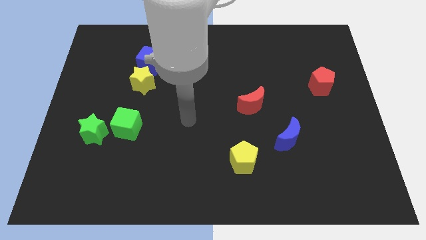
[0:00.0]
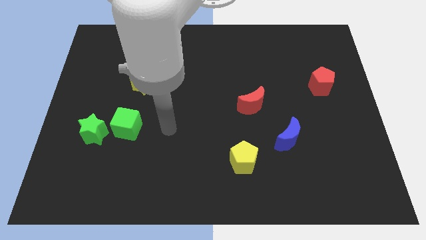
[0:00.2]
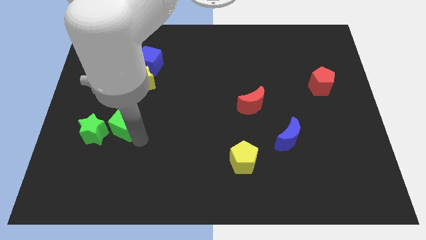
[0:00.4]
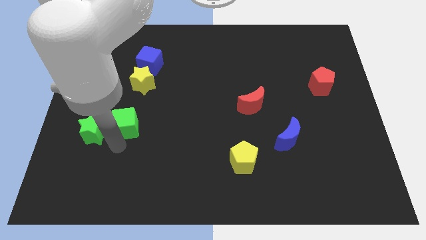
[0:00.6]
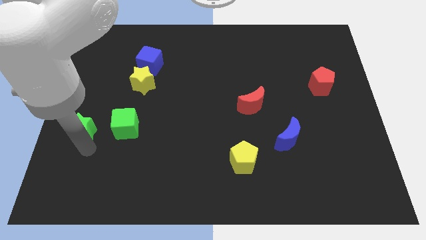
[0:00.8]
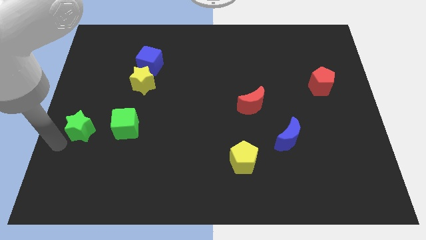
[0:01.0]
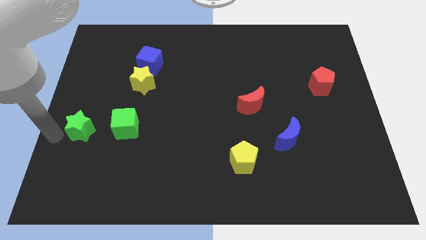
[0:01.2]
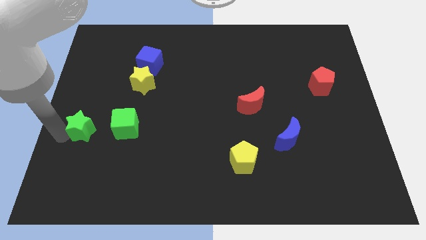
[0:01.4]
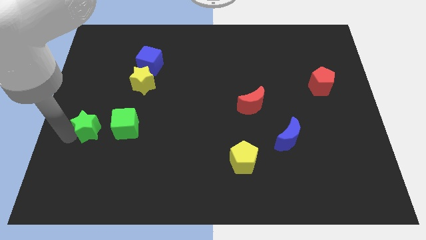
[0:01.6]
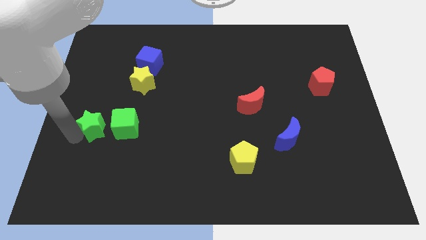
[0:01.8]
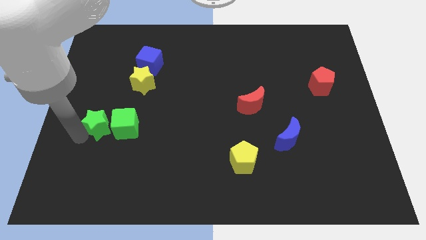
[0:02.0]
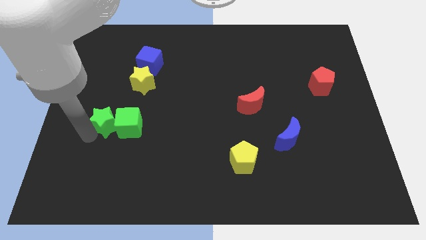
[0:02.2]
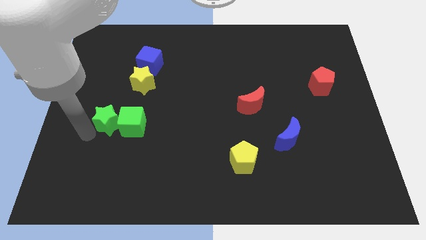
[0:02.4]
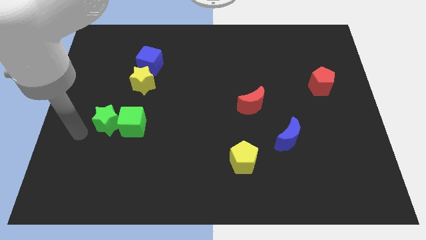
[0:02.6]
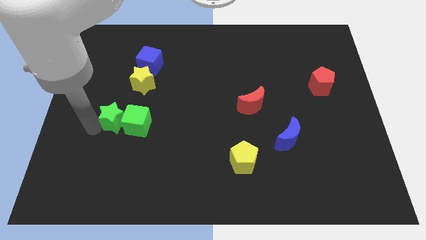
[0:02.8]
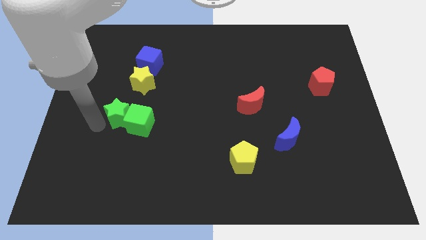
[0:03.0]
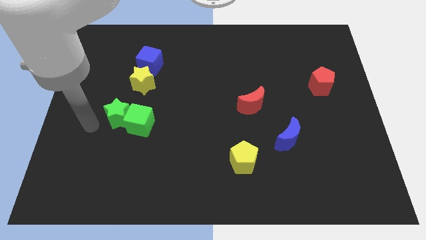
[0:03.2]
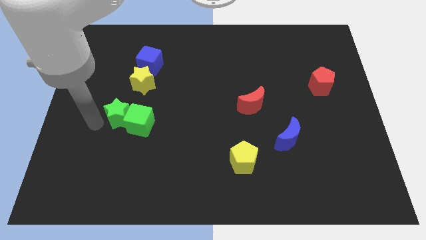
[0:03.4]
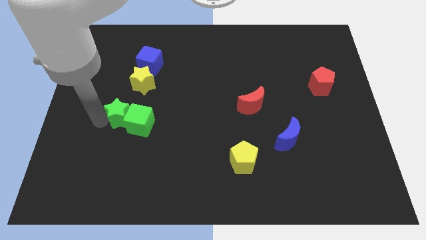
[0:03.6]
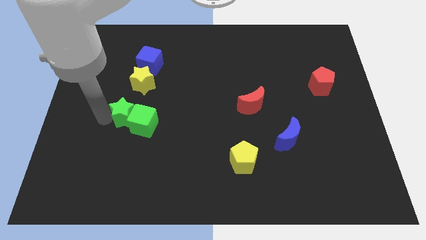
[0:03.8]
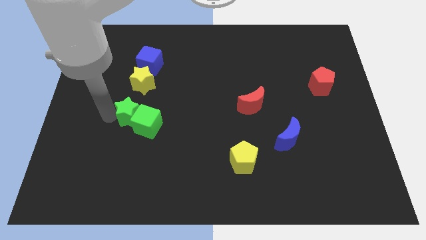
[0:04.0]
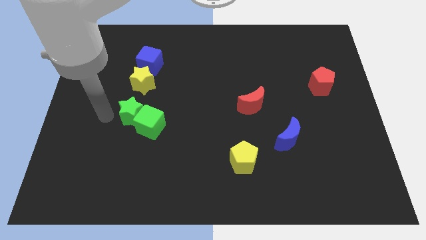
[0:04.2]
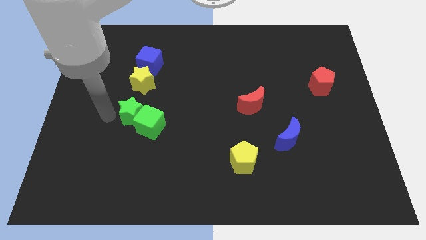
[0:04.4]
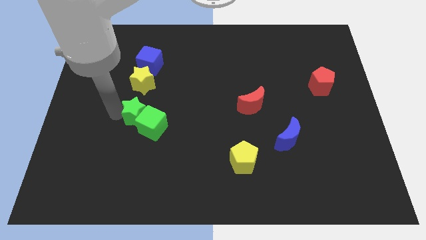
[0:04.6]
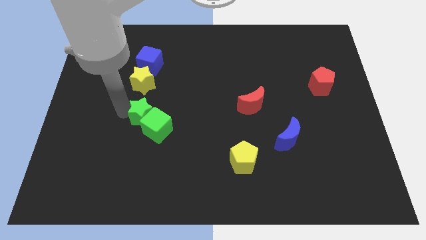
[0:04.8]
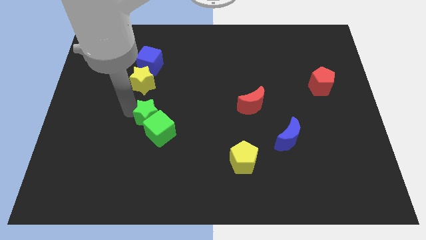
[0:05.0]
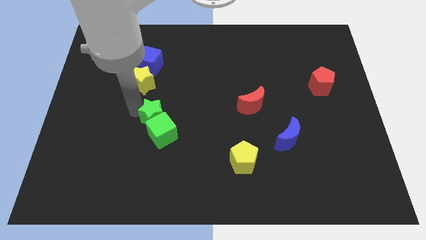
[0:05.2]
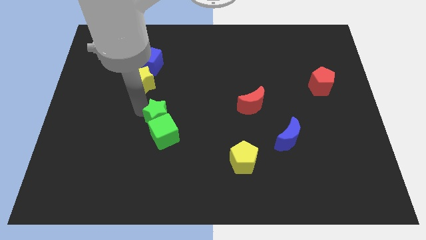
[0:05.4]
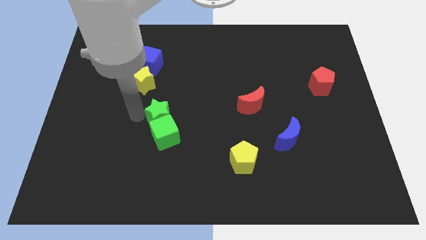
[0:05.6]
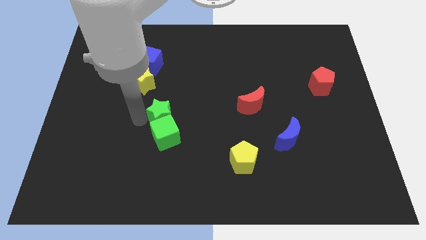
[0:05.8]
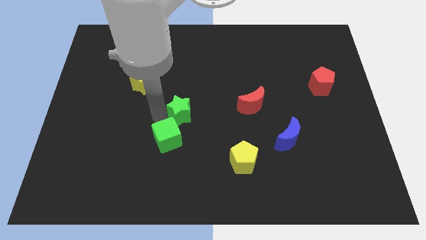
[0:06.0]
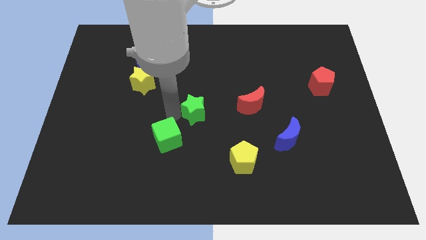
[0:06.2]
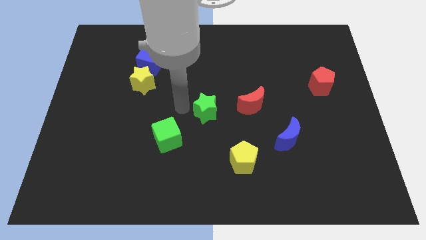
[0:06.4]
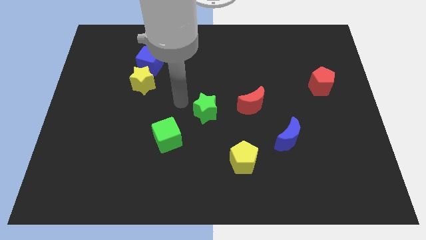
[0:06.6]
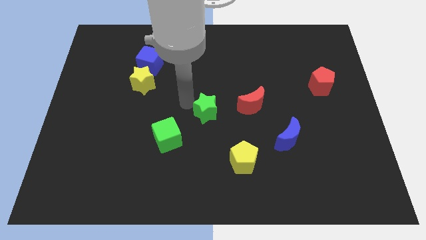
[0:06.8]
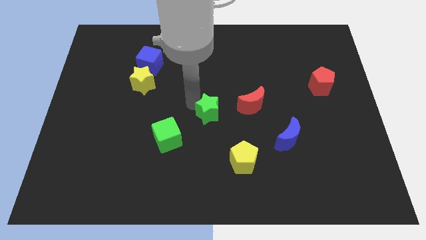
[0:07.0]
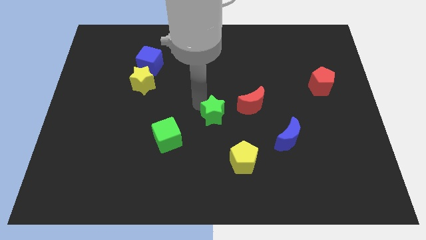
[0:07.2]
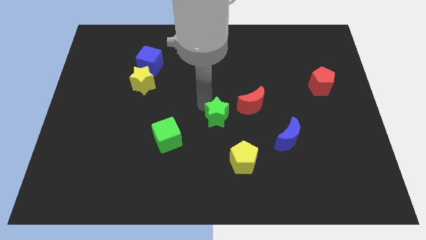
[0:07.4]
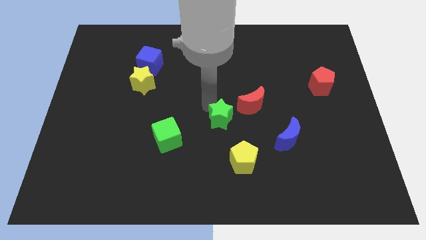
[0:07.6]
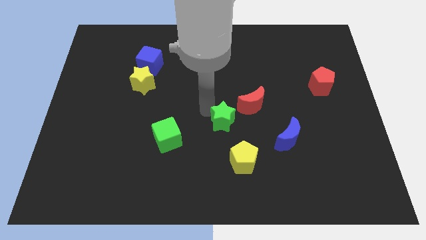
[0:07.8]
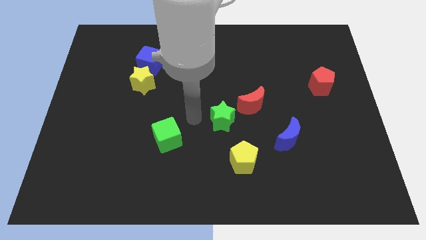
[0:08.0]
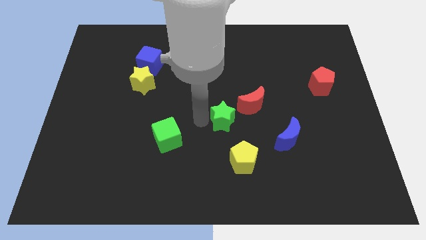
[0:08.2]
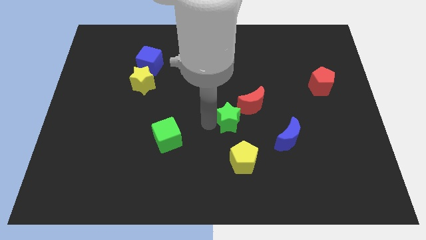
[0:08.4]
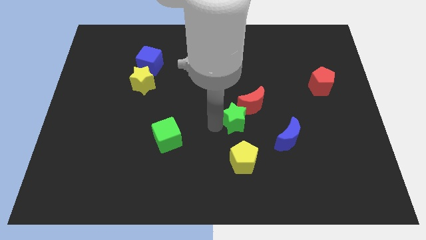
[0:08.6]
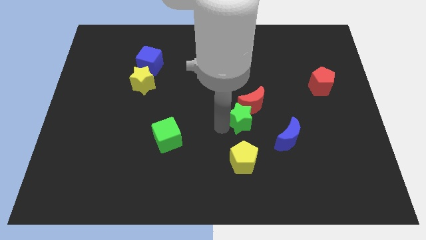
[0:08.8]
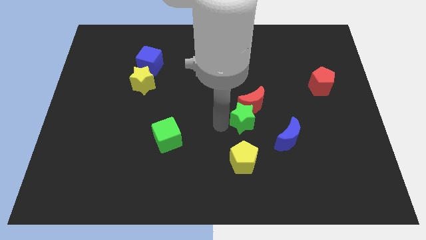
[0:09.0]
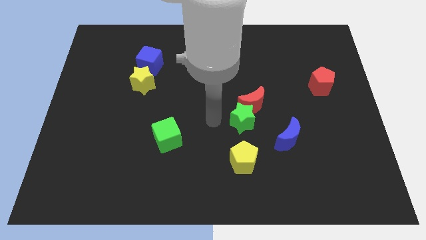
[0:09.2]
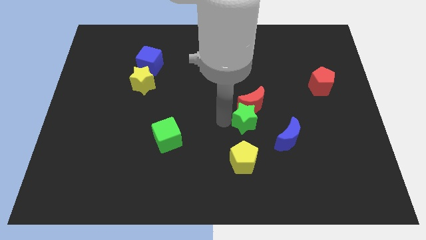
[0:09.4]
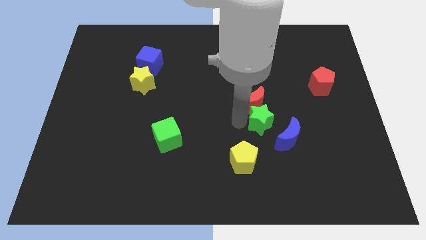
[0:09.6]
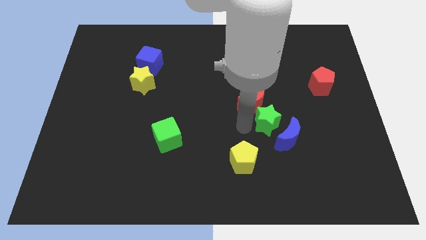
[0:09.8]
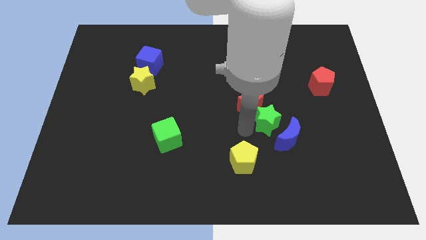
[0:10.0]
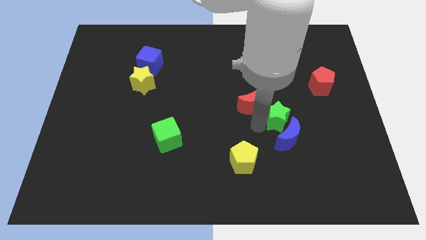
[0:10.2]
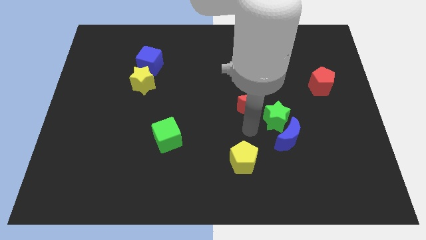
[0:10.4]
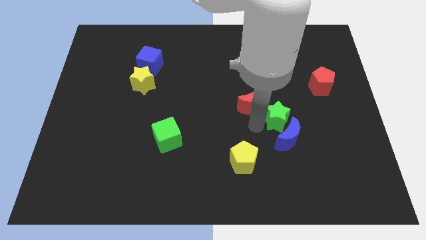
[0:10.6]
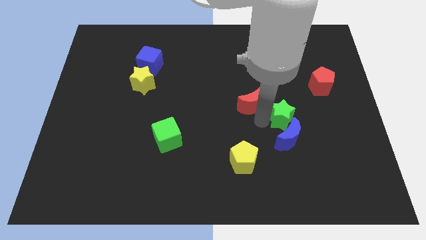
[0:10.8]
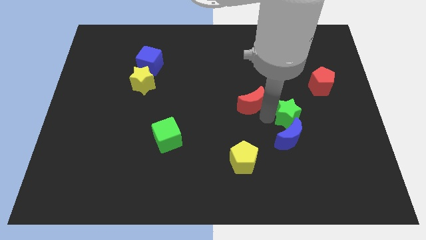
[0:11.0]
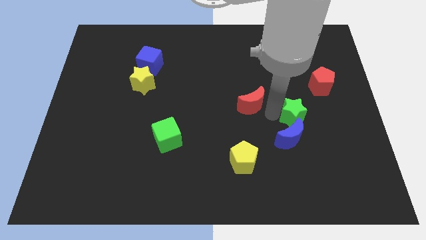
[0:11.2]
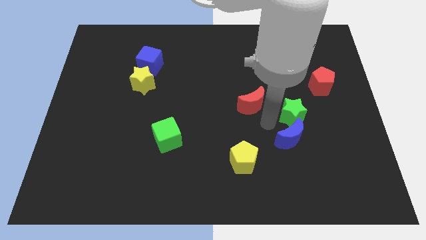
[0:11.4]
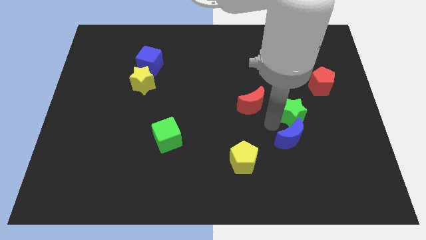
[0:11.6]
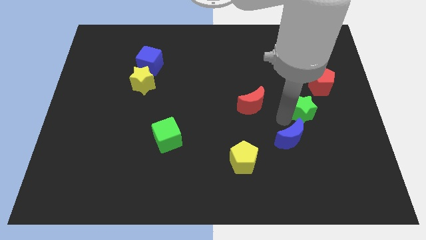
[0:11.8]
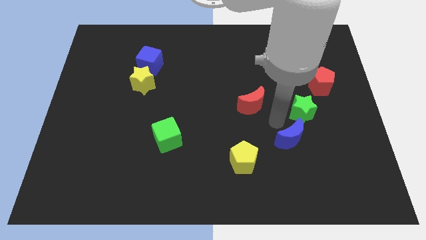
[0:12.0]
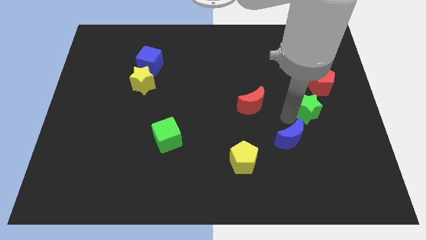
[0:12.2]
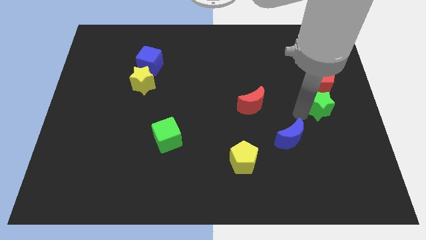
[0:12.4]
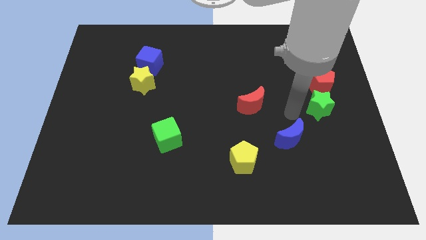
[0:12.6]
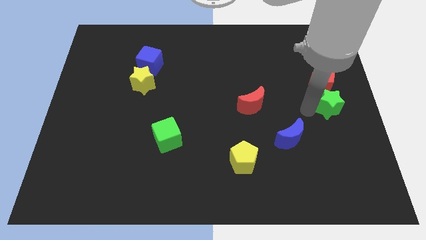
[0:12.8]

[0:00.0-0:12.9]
slide the green star to the center right
